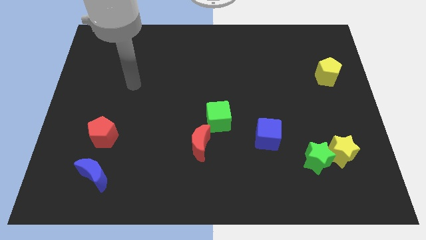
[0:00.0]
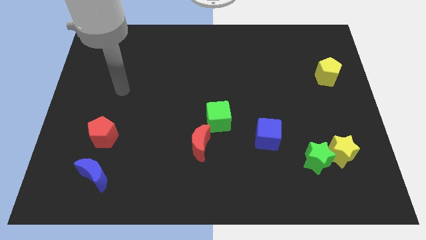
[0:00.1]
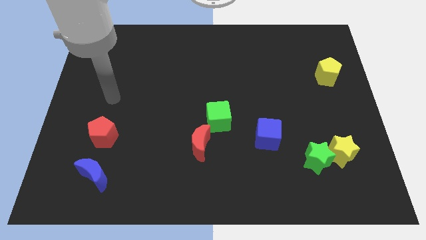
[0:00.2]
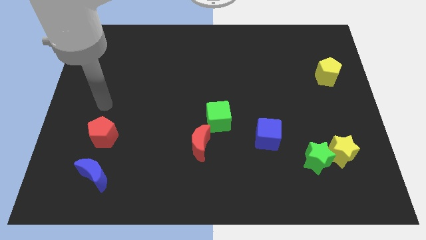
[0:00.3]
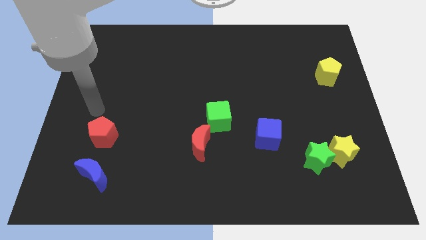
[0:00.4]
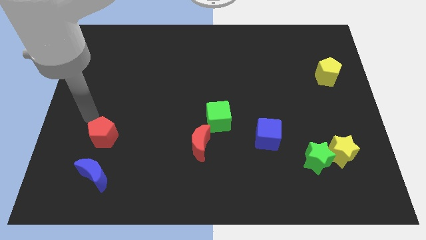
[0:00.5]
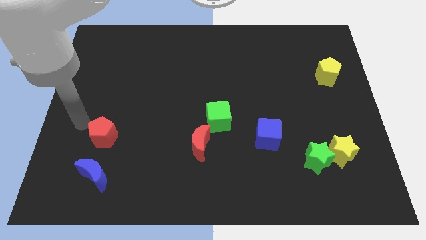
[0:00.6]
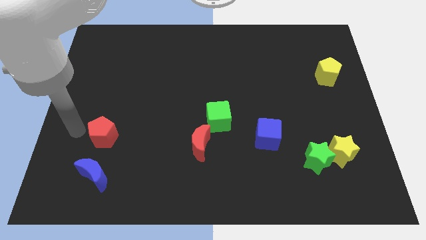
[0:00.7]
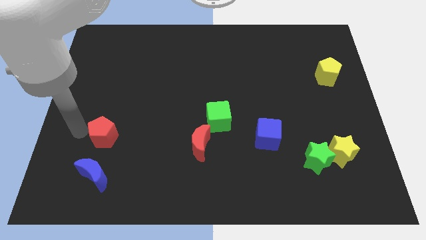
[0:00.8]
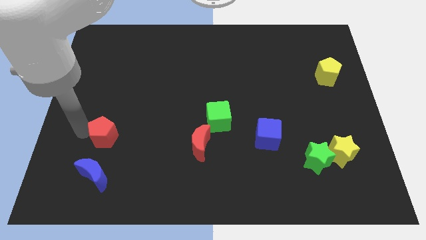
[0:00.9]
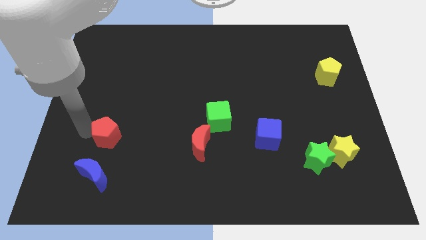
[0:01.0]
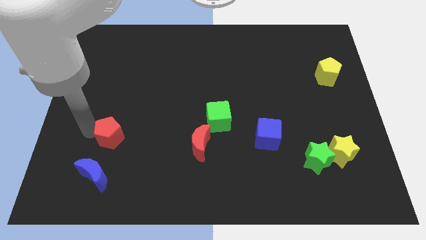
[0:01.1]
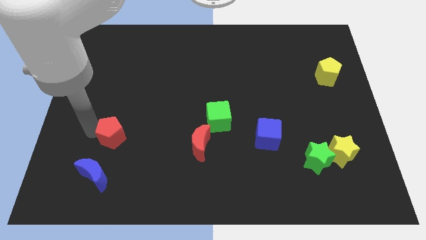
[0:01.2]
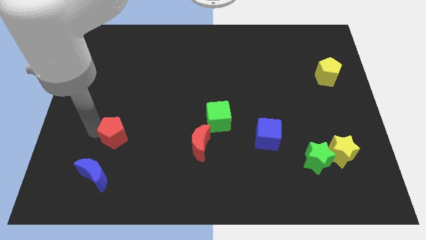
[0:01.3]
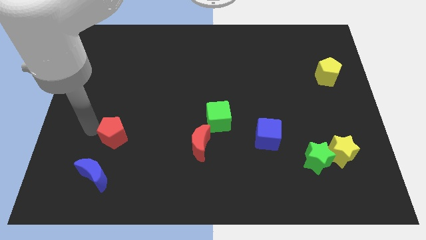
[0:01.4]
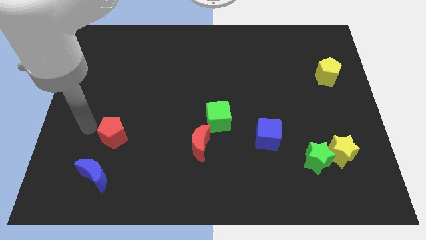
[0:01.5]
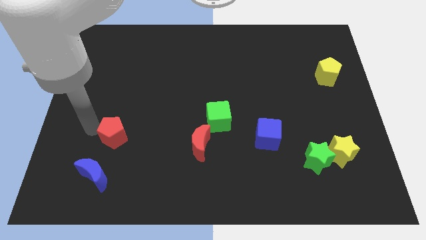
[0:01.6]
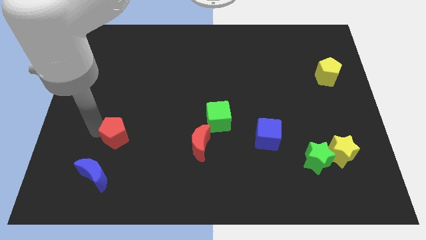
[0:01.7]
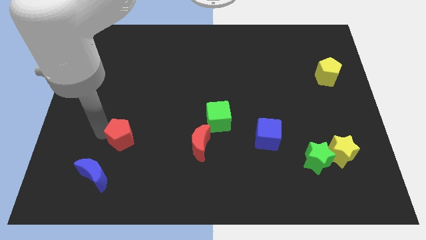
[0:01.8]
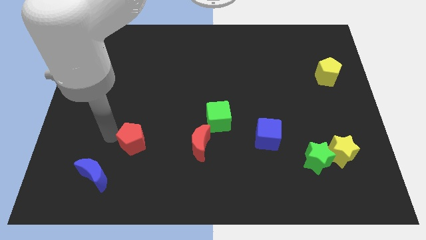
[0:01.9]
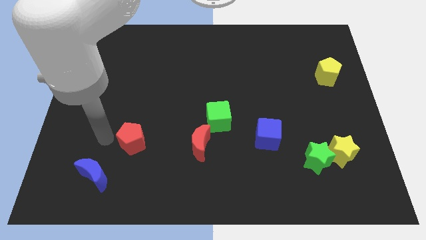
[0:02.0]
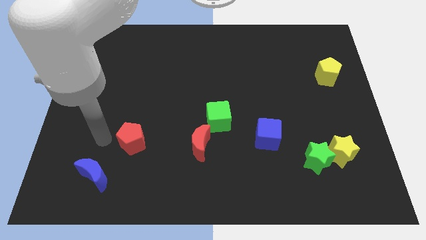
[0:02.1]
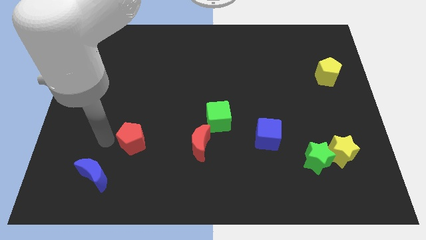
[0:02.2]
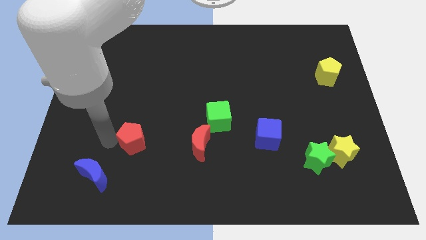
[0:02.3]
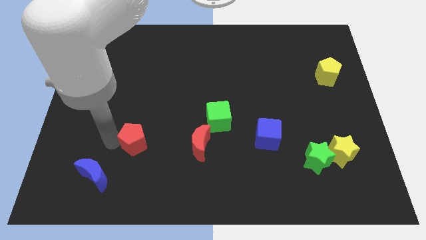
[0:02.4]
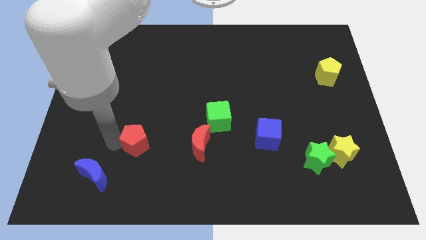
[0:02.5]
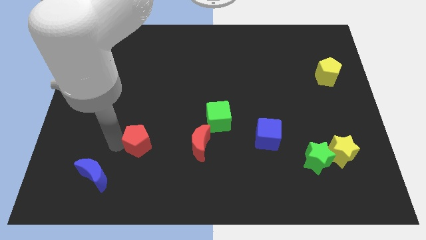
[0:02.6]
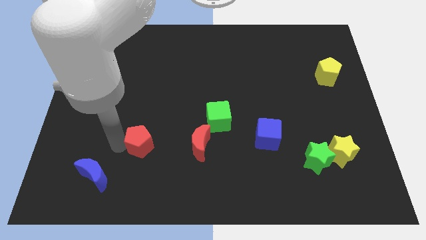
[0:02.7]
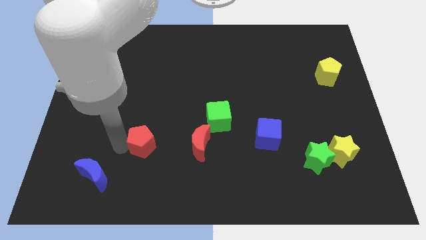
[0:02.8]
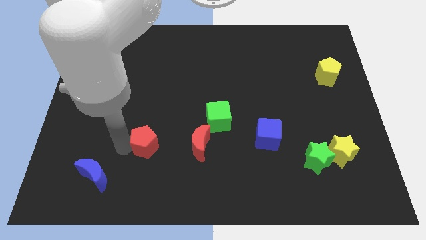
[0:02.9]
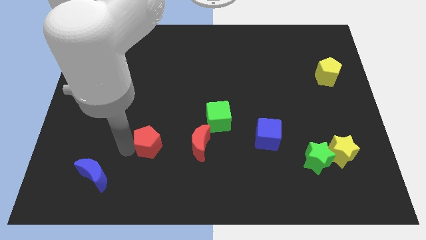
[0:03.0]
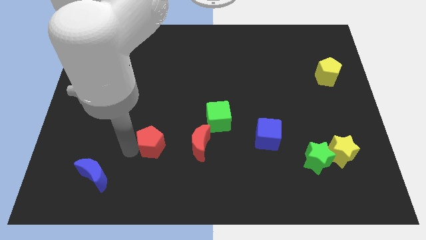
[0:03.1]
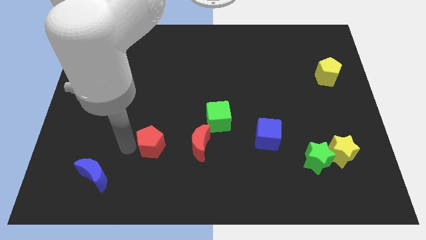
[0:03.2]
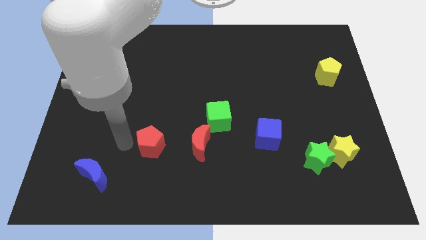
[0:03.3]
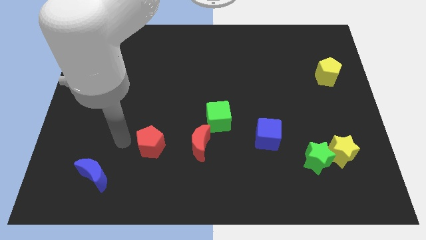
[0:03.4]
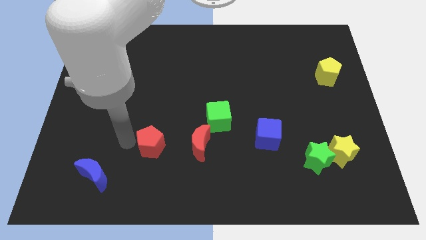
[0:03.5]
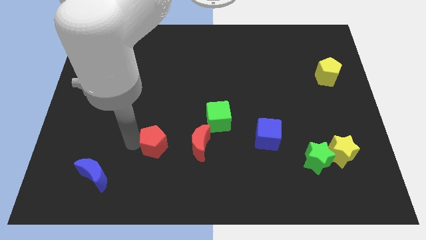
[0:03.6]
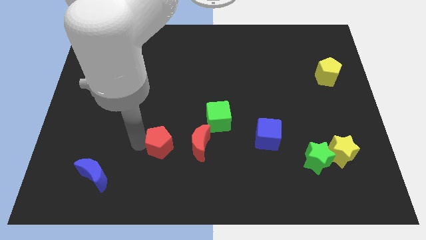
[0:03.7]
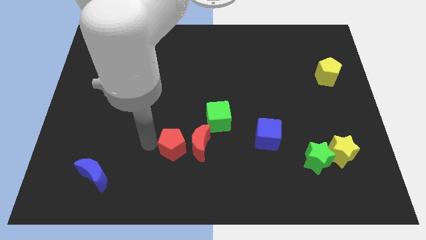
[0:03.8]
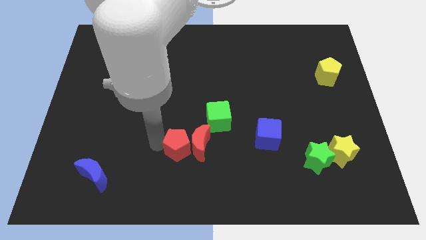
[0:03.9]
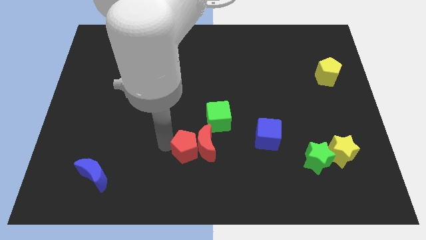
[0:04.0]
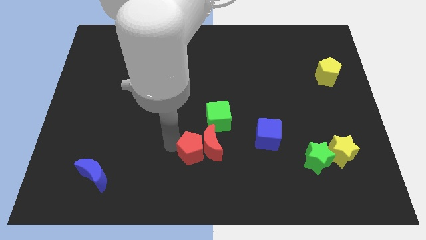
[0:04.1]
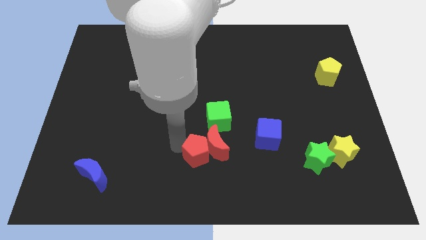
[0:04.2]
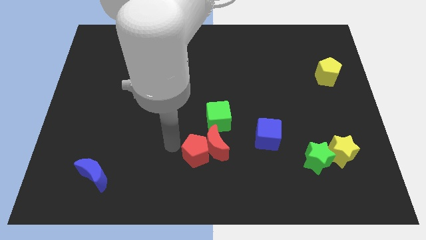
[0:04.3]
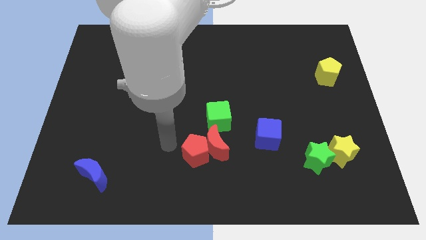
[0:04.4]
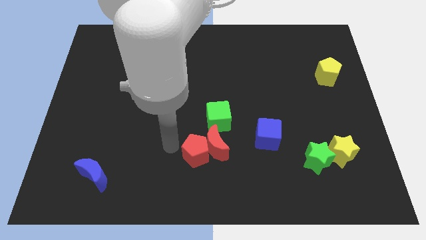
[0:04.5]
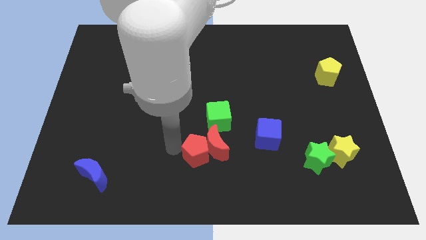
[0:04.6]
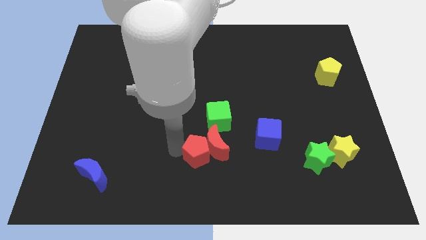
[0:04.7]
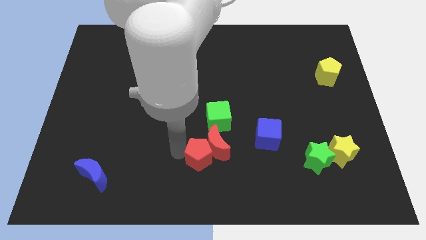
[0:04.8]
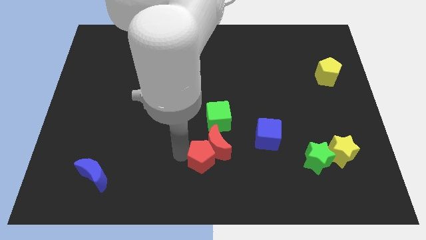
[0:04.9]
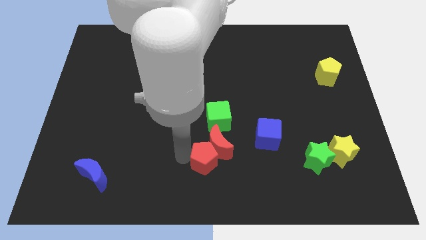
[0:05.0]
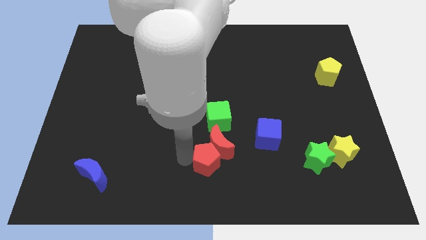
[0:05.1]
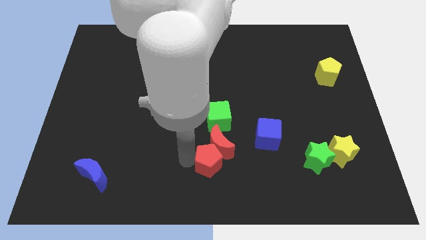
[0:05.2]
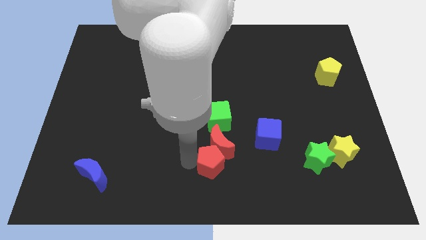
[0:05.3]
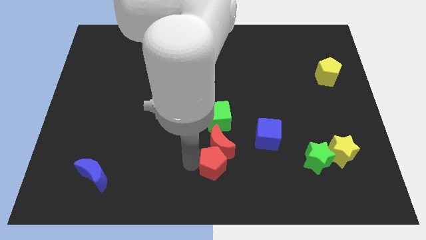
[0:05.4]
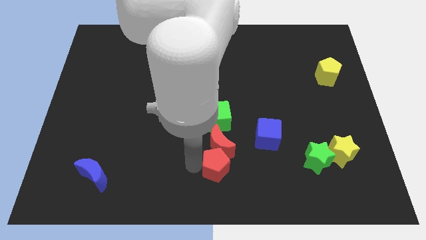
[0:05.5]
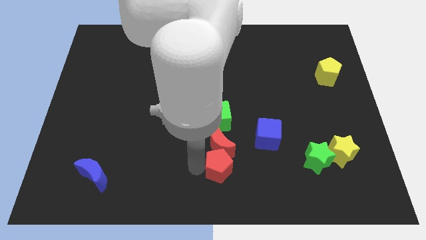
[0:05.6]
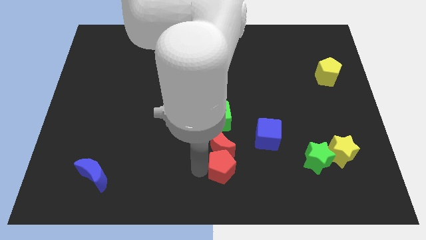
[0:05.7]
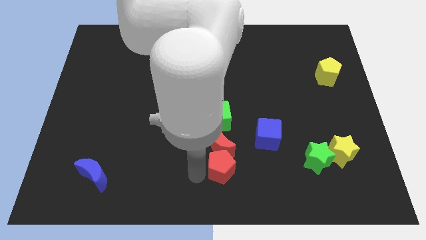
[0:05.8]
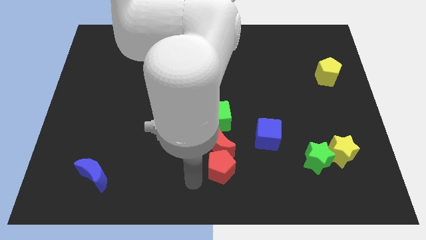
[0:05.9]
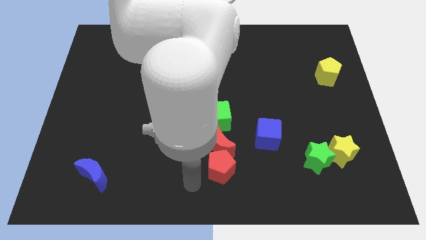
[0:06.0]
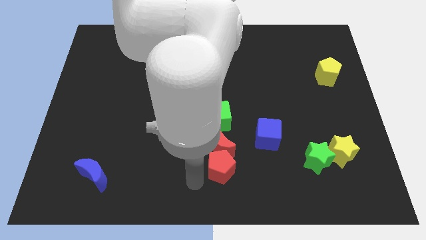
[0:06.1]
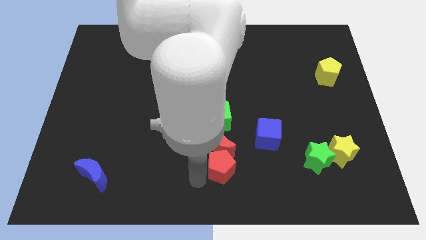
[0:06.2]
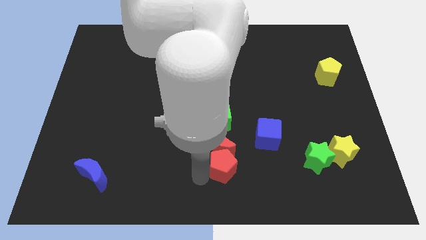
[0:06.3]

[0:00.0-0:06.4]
slide the red pentagon to the bottom left of the blue cube

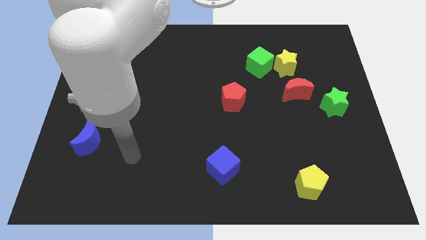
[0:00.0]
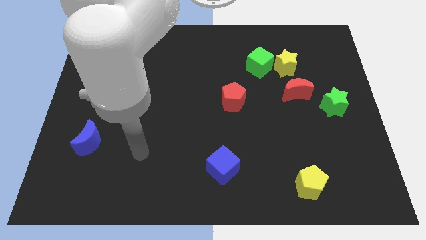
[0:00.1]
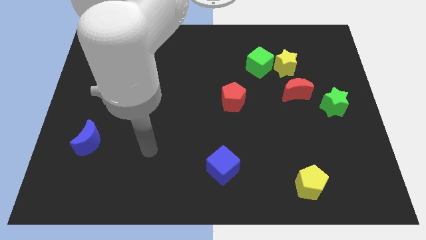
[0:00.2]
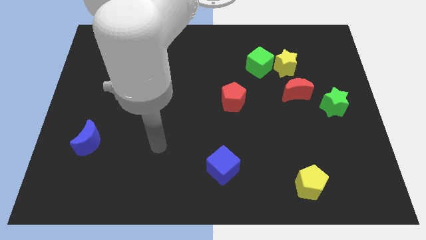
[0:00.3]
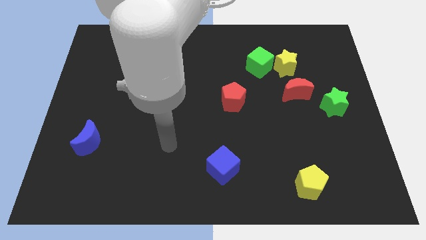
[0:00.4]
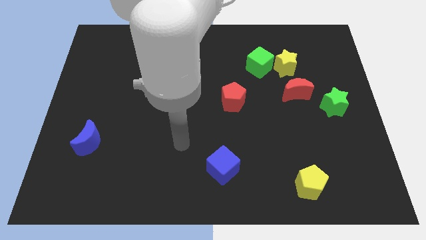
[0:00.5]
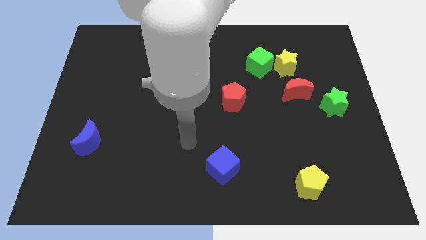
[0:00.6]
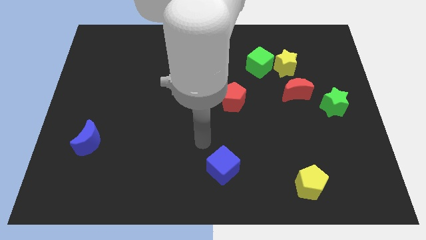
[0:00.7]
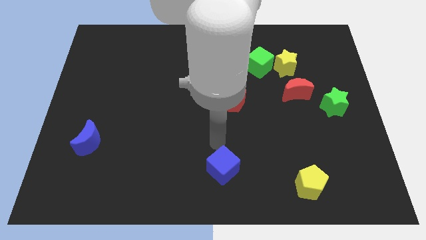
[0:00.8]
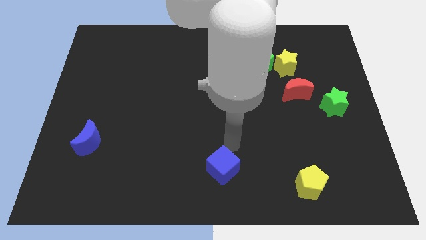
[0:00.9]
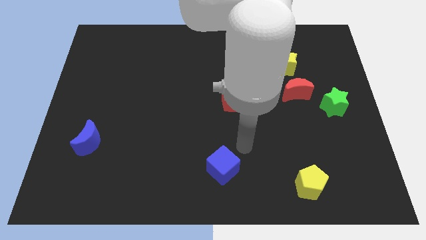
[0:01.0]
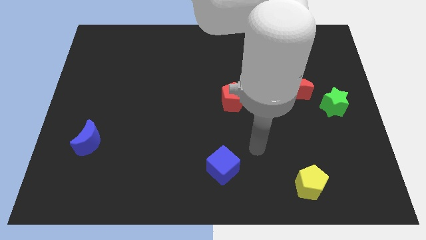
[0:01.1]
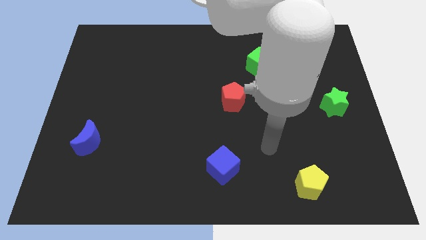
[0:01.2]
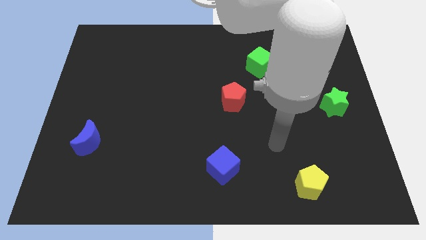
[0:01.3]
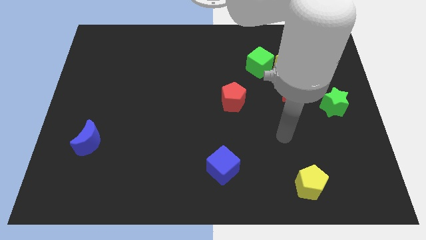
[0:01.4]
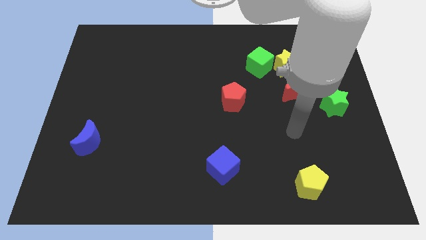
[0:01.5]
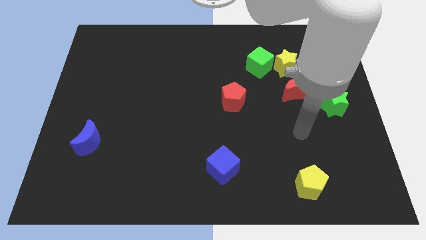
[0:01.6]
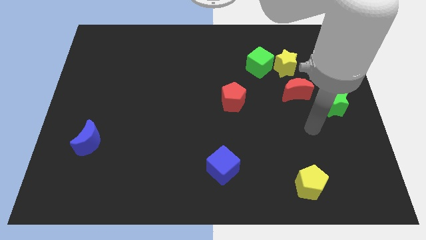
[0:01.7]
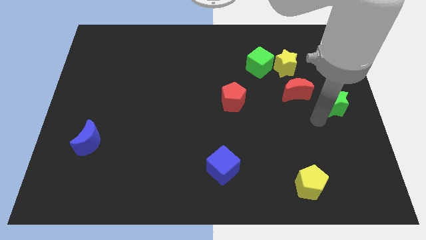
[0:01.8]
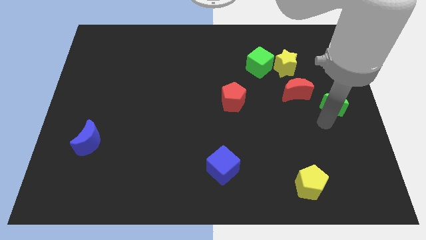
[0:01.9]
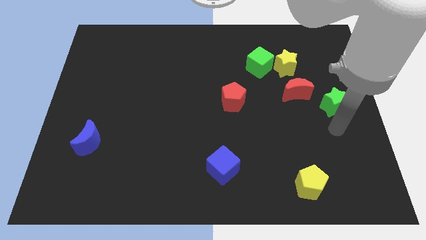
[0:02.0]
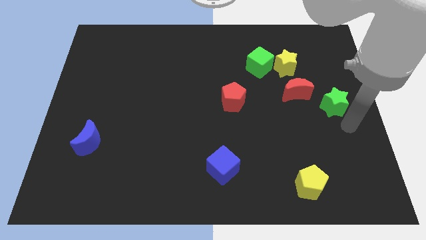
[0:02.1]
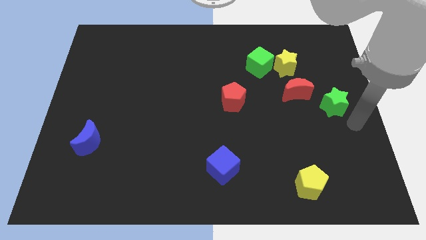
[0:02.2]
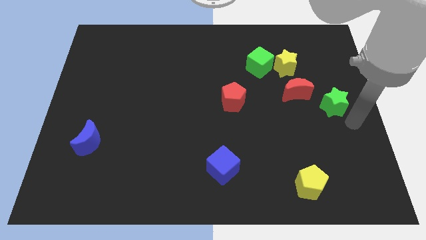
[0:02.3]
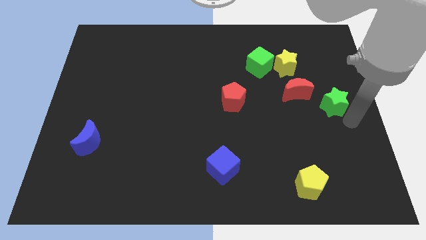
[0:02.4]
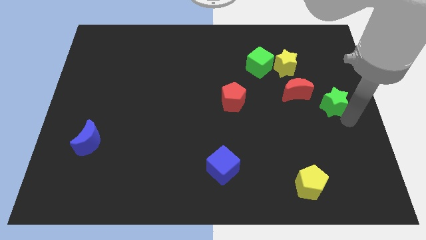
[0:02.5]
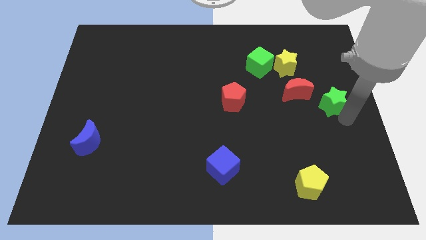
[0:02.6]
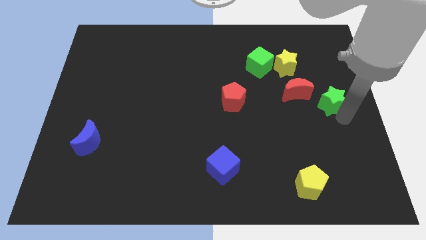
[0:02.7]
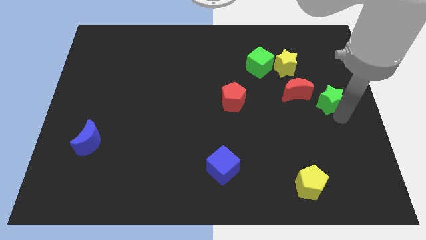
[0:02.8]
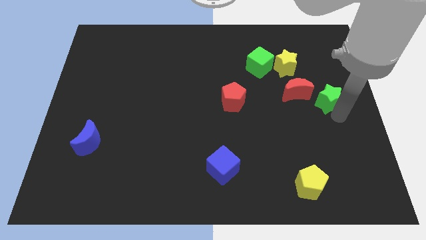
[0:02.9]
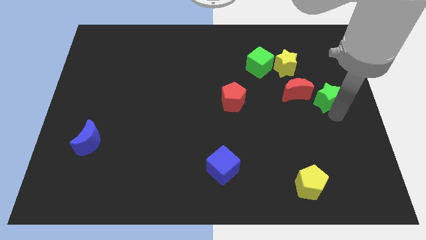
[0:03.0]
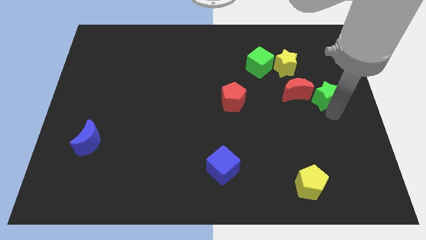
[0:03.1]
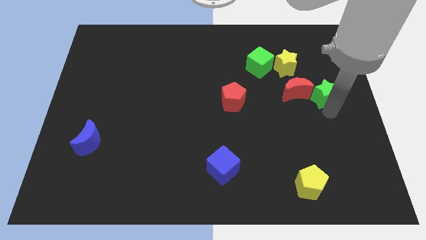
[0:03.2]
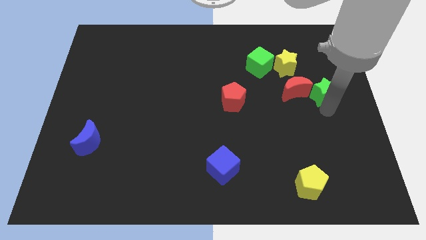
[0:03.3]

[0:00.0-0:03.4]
put the green star to the bottom right side of the yellow star
